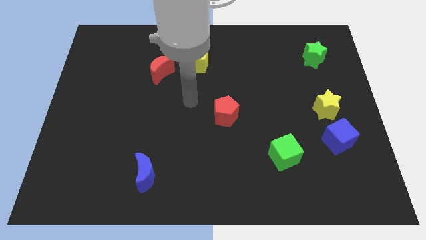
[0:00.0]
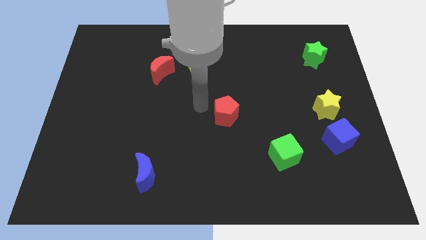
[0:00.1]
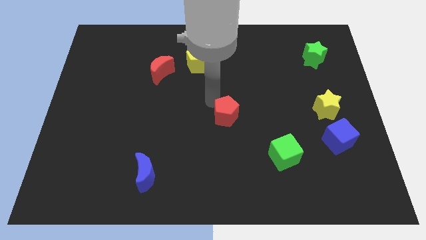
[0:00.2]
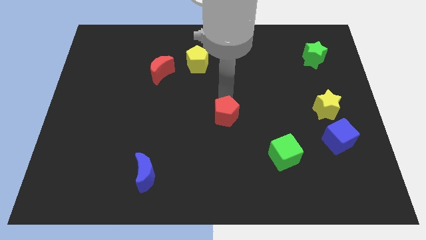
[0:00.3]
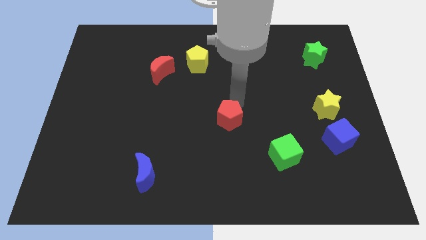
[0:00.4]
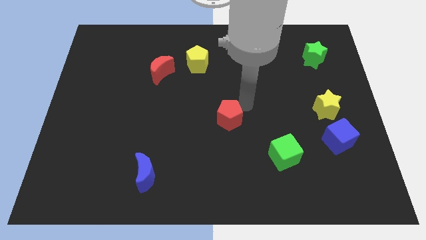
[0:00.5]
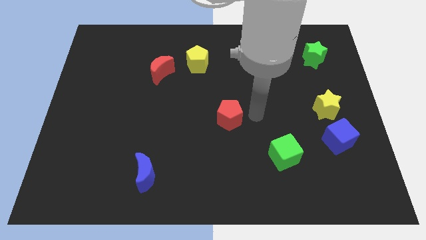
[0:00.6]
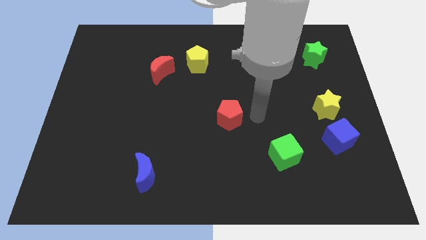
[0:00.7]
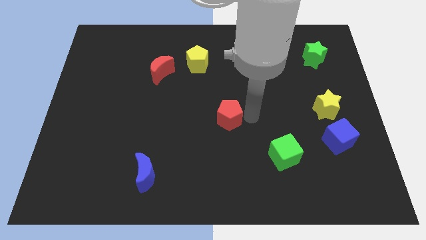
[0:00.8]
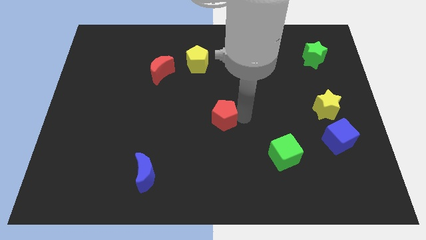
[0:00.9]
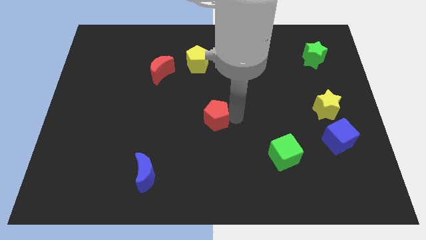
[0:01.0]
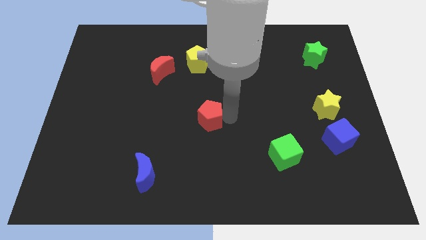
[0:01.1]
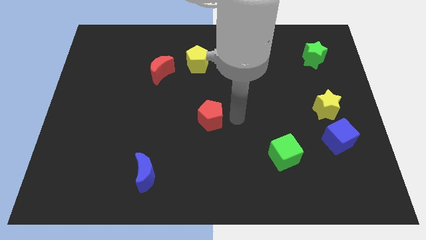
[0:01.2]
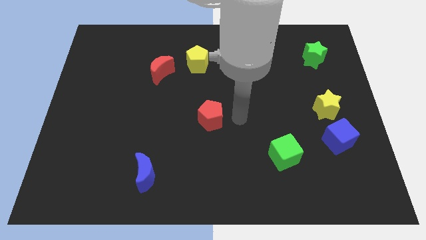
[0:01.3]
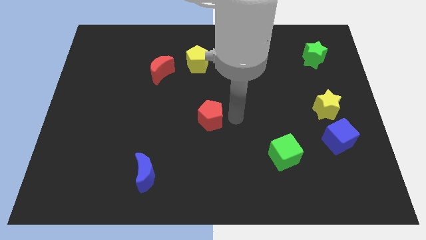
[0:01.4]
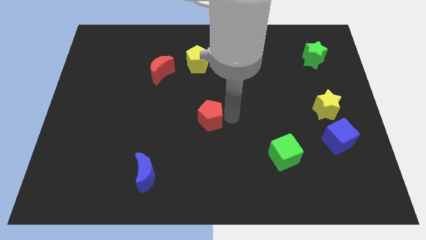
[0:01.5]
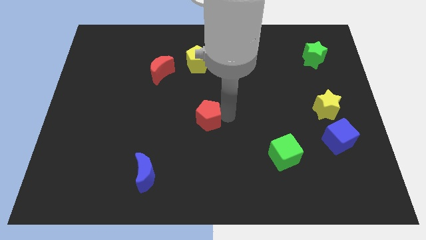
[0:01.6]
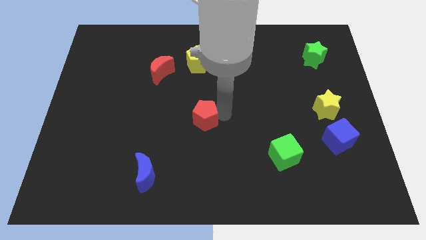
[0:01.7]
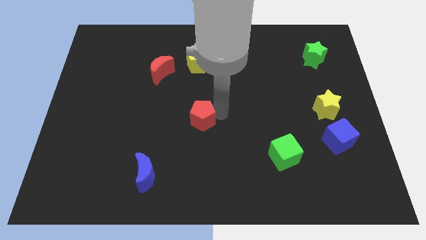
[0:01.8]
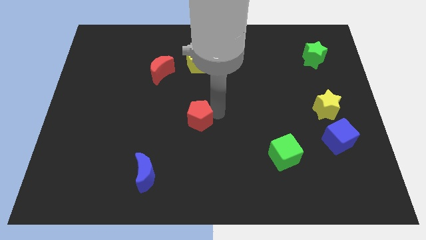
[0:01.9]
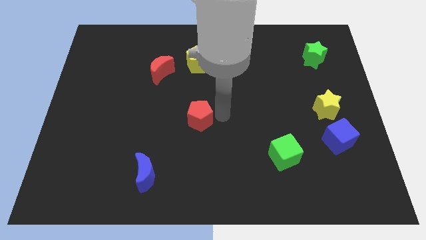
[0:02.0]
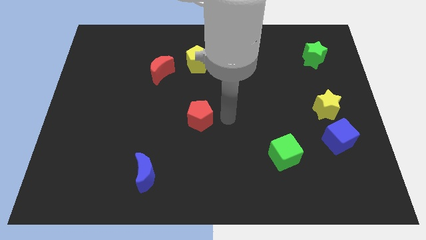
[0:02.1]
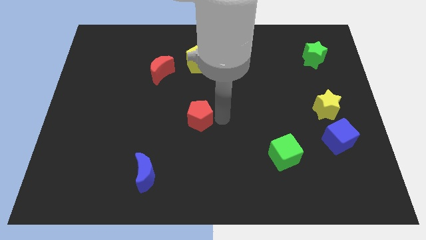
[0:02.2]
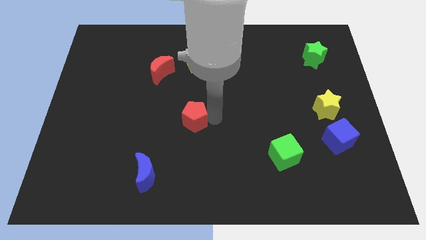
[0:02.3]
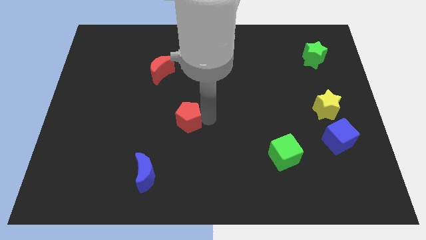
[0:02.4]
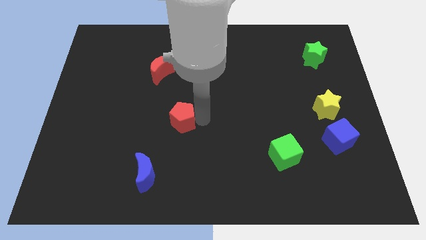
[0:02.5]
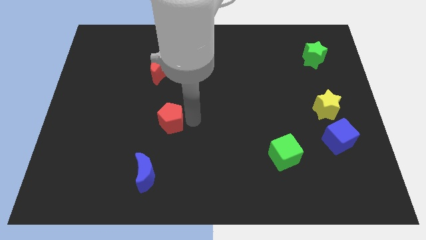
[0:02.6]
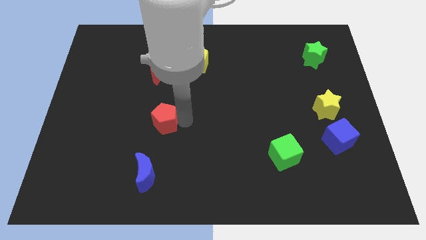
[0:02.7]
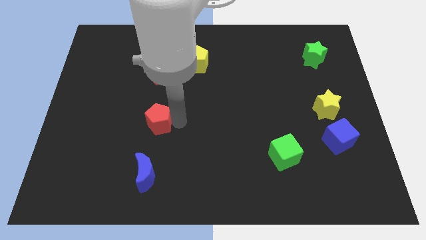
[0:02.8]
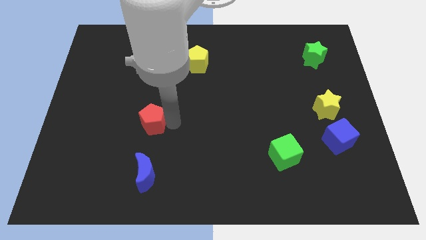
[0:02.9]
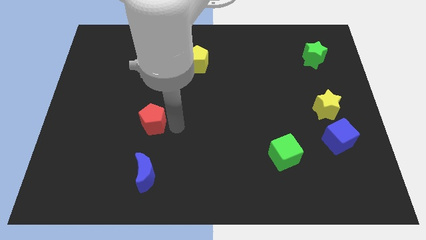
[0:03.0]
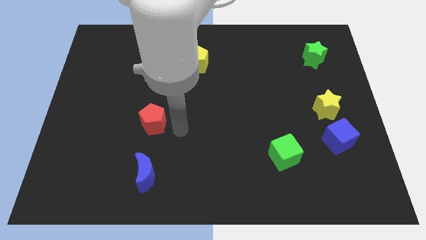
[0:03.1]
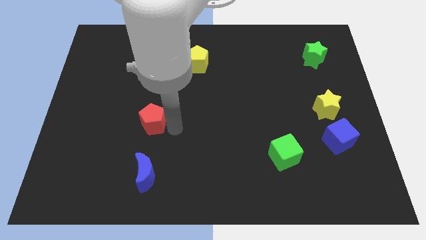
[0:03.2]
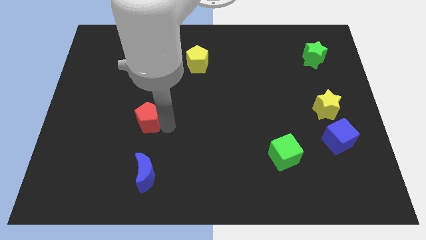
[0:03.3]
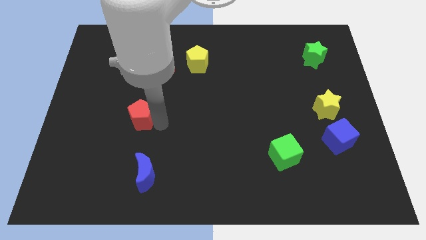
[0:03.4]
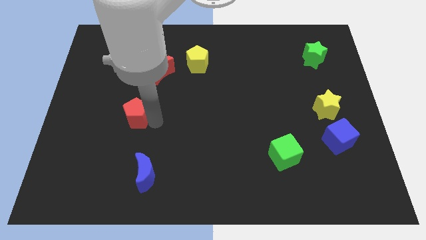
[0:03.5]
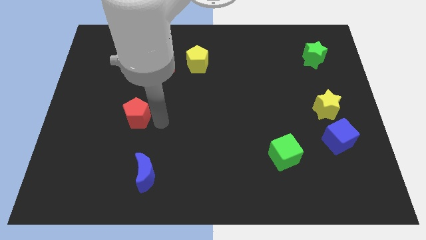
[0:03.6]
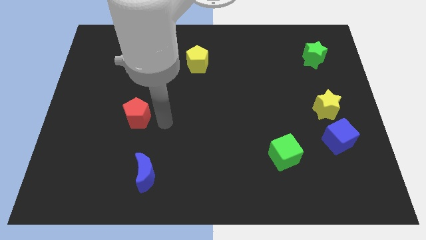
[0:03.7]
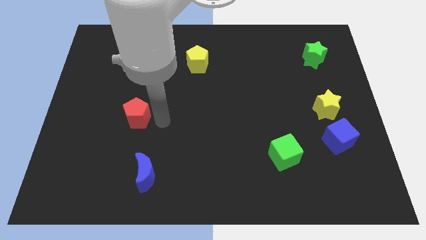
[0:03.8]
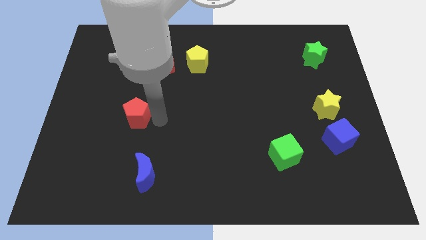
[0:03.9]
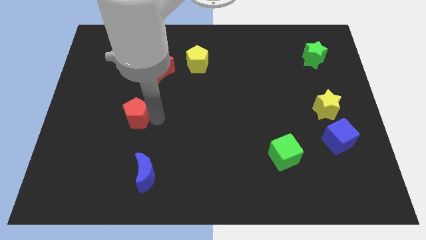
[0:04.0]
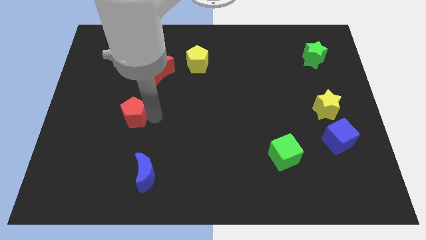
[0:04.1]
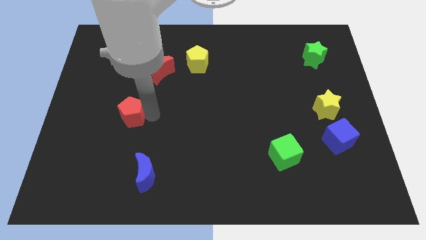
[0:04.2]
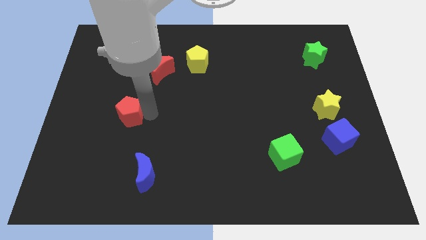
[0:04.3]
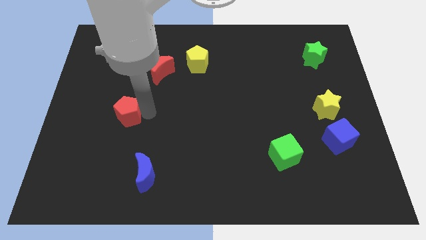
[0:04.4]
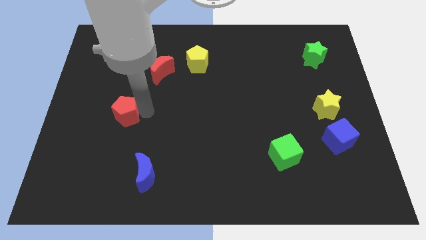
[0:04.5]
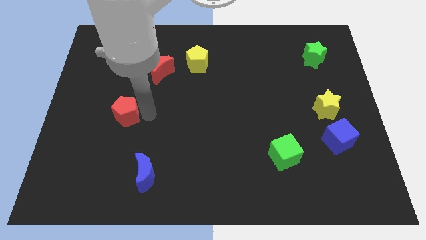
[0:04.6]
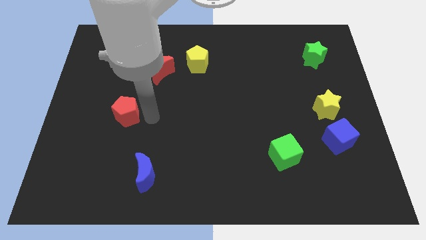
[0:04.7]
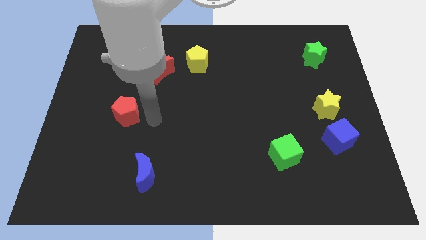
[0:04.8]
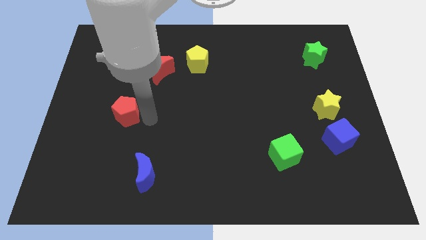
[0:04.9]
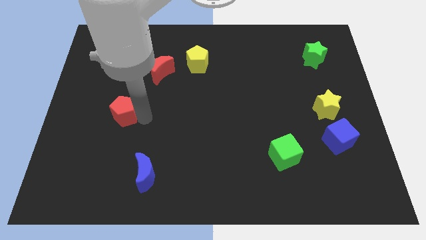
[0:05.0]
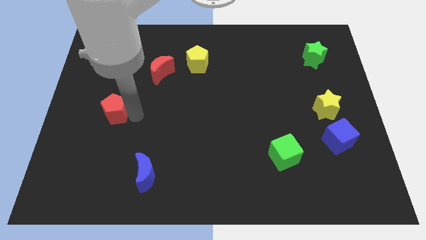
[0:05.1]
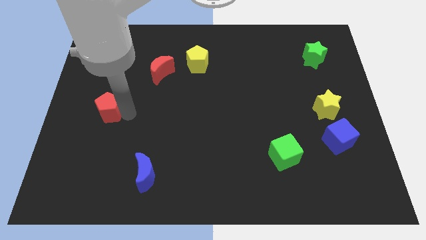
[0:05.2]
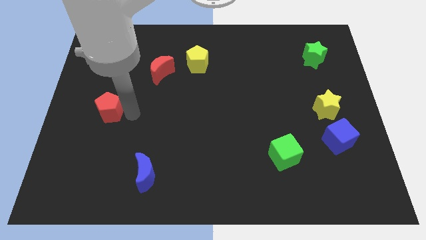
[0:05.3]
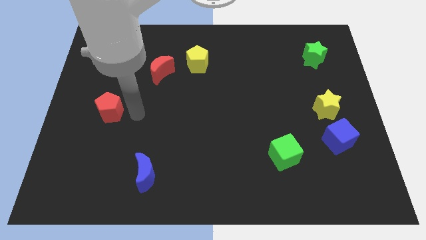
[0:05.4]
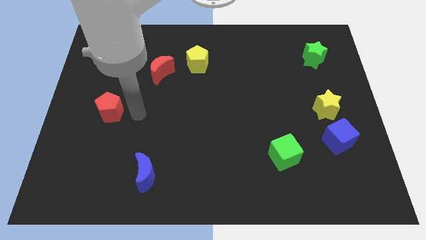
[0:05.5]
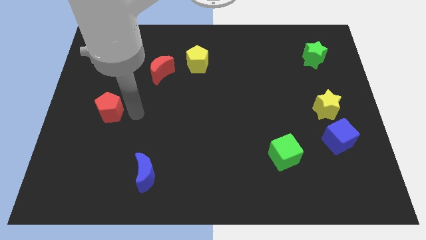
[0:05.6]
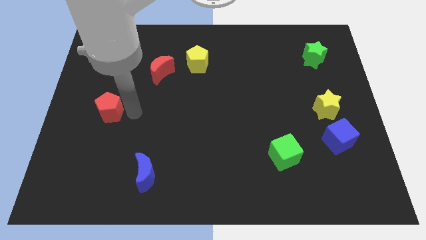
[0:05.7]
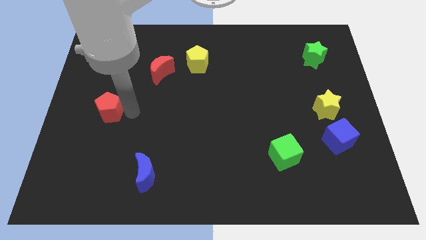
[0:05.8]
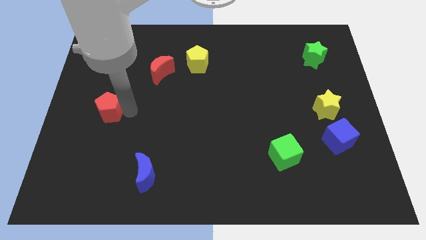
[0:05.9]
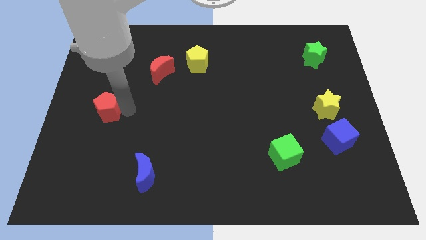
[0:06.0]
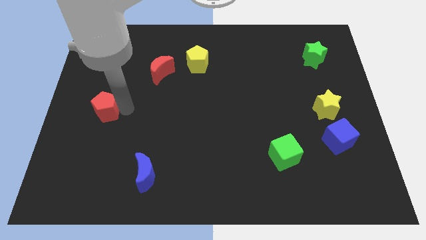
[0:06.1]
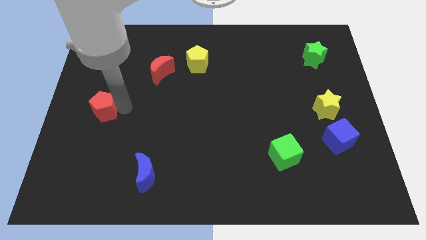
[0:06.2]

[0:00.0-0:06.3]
put the red pentagon to the left side
